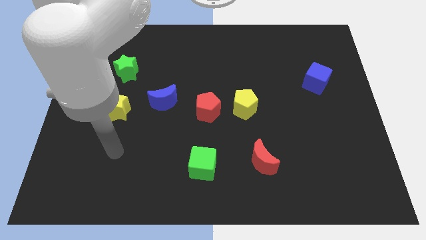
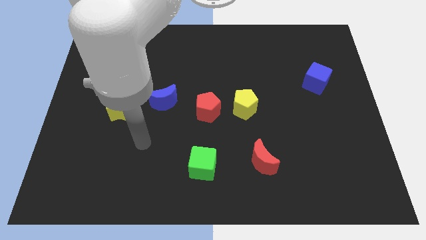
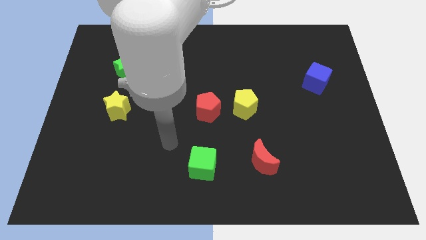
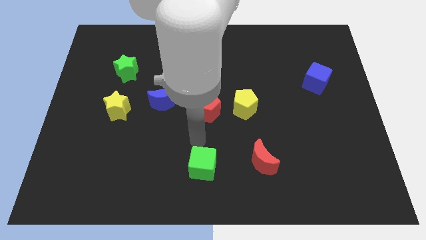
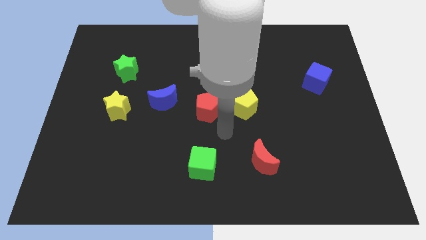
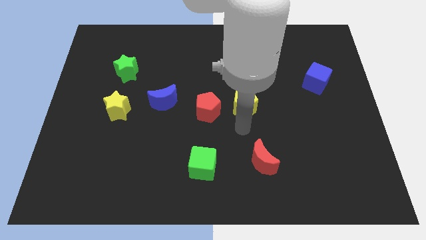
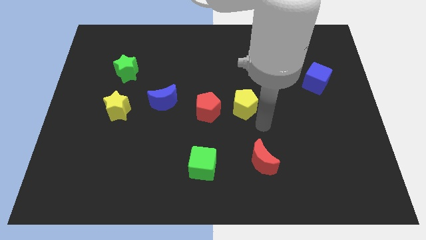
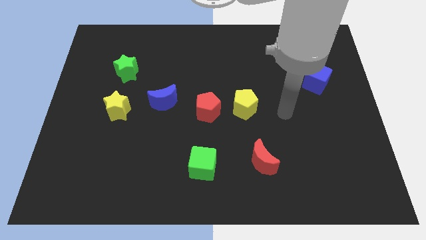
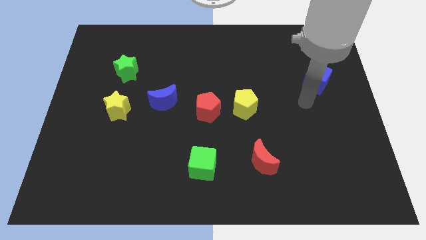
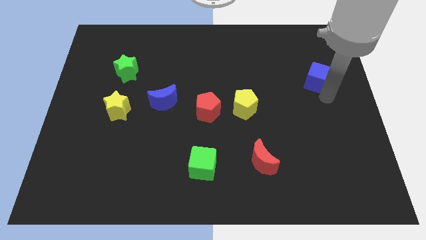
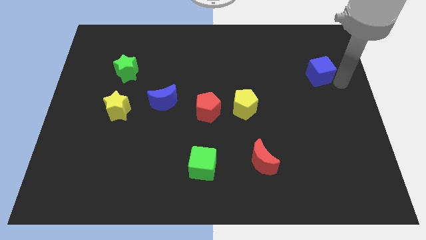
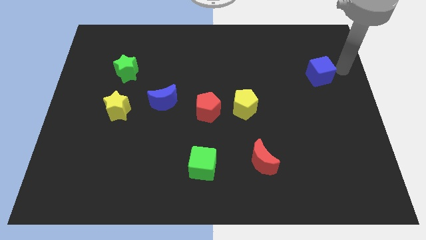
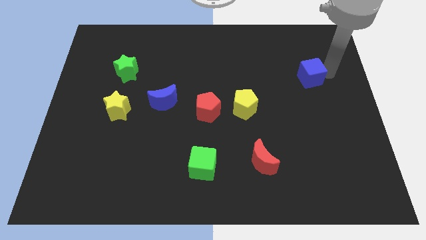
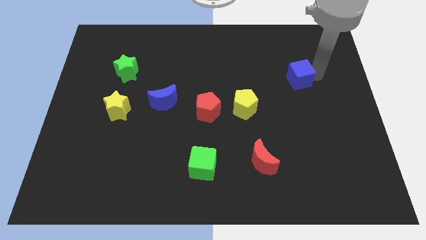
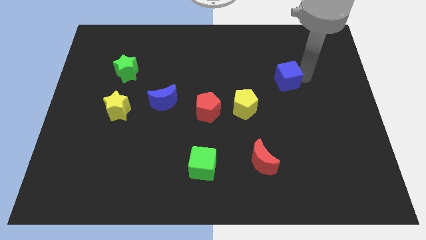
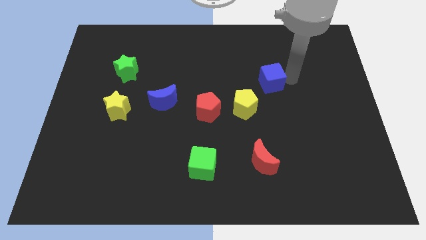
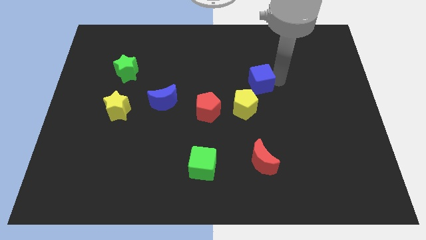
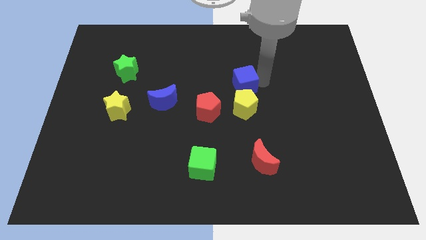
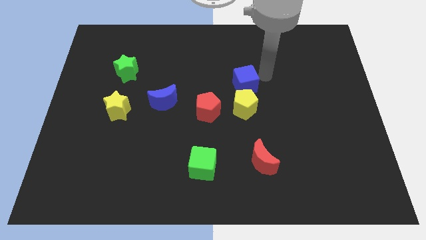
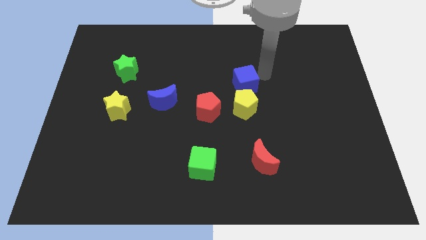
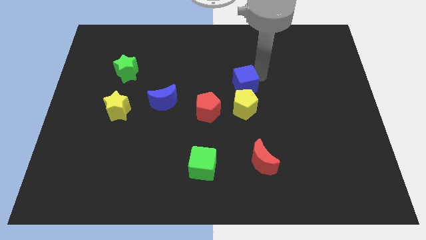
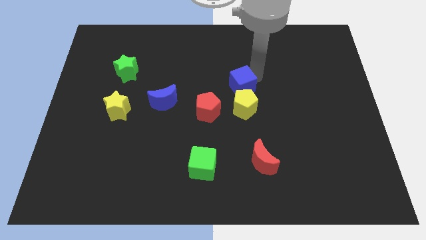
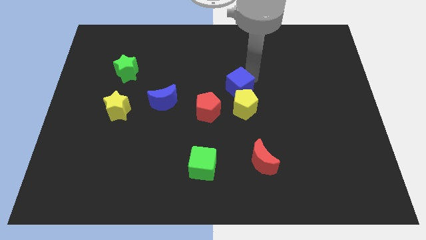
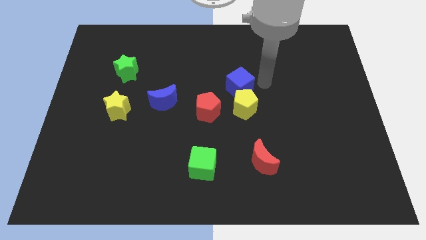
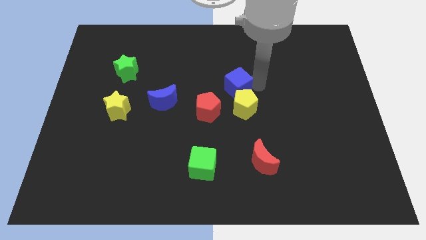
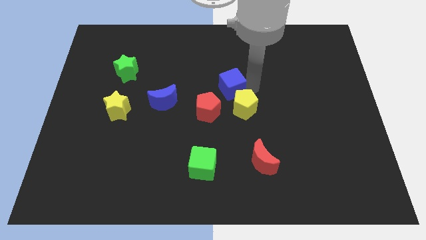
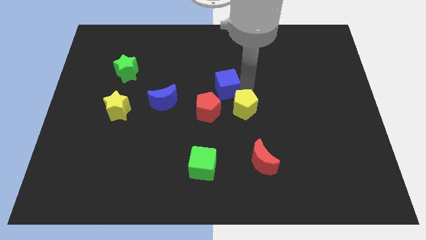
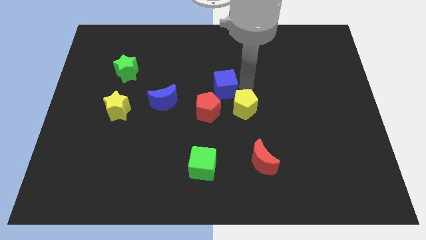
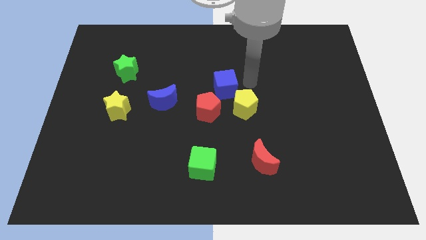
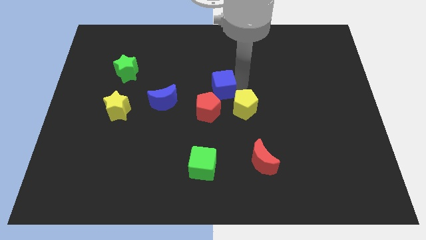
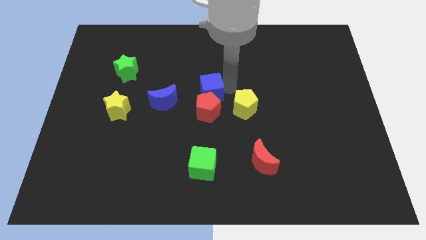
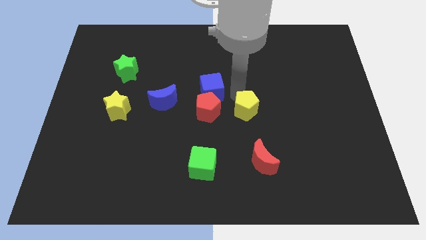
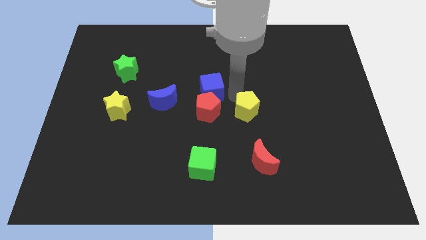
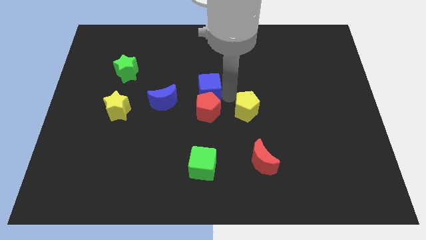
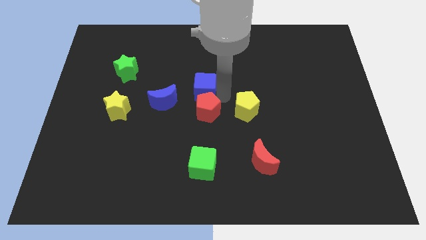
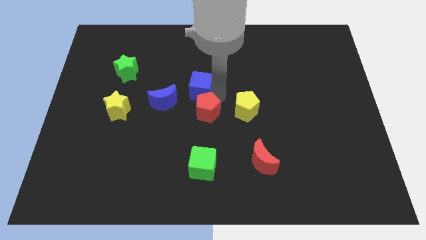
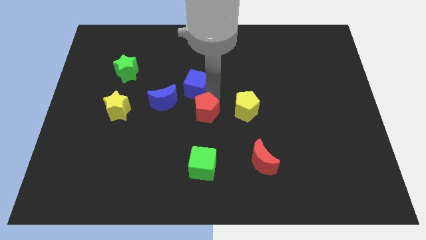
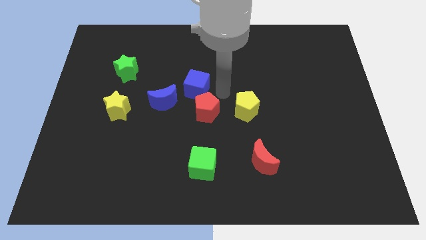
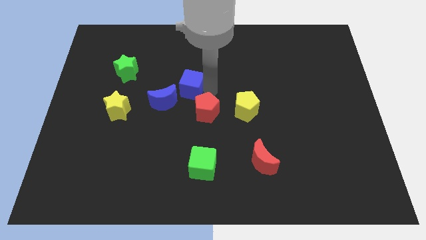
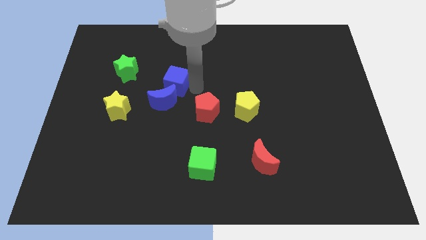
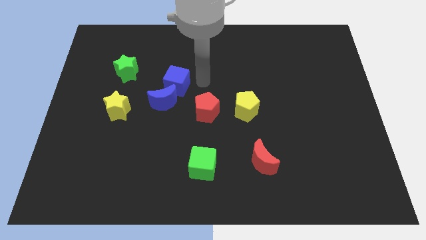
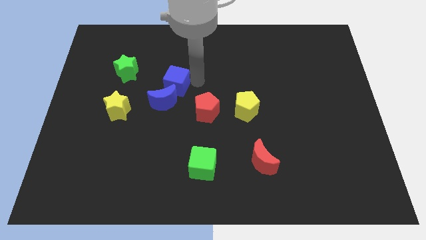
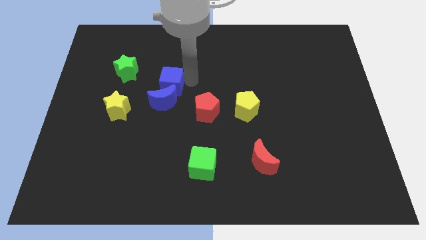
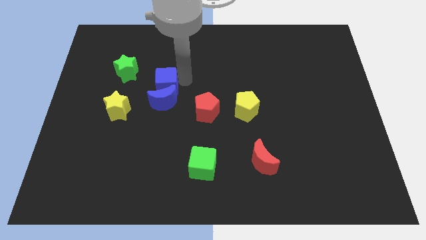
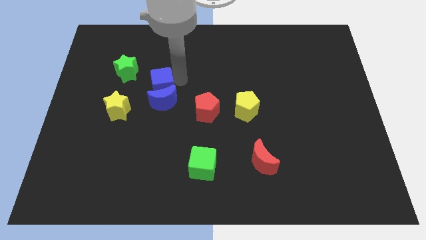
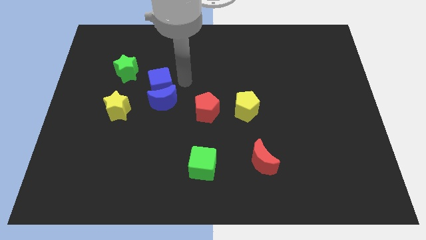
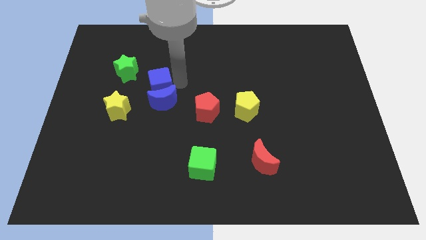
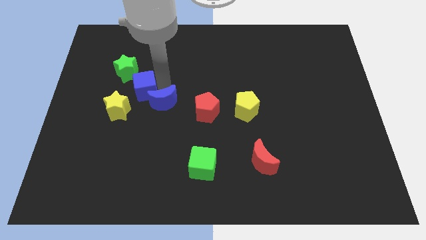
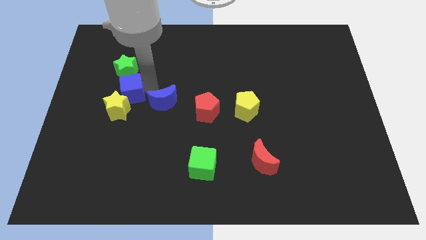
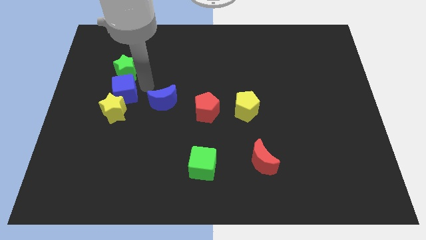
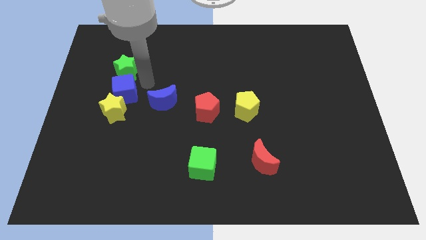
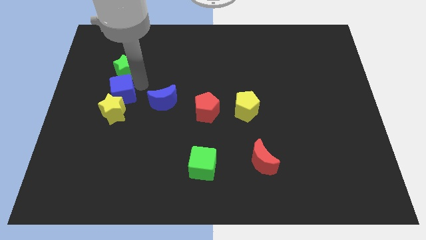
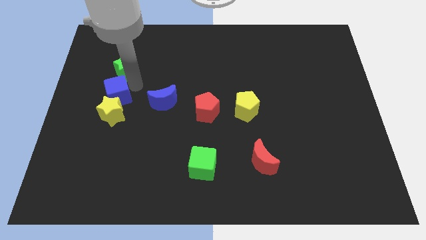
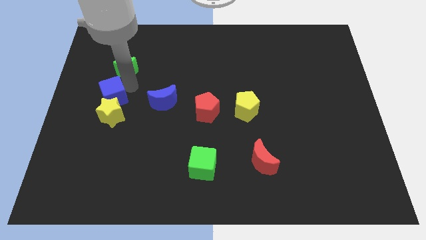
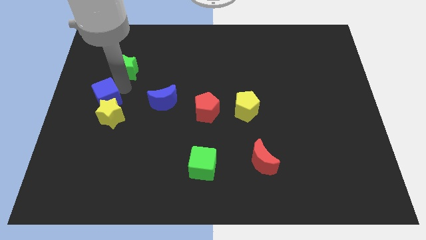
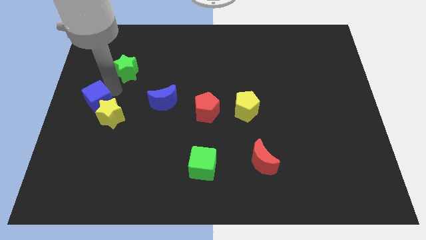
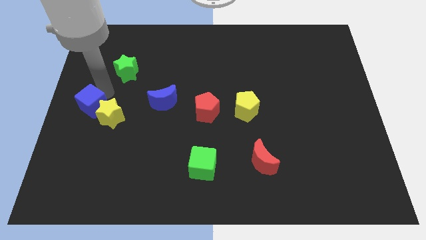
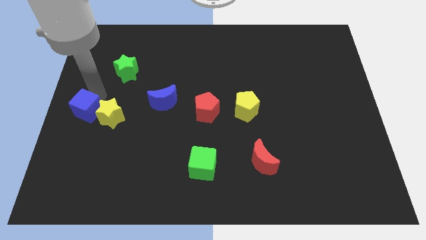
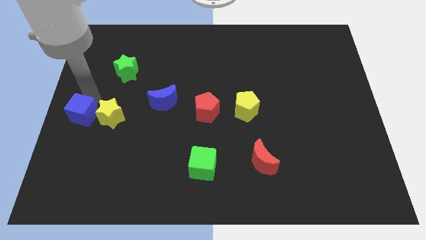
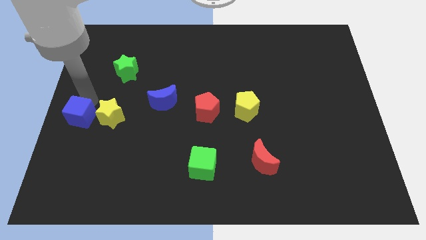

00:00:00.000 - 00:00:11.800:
move the blue cube to the bottom left of the yellow star

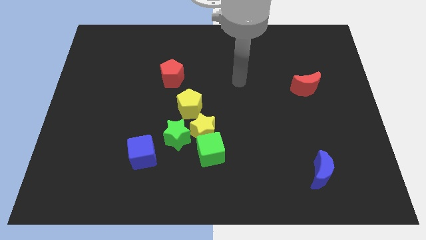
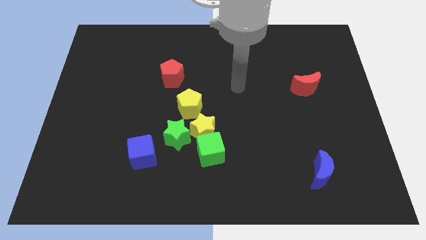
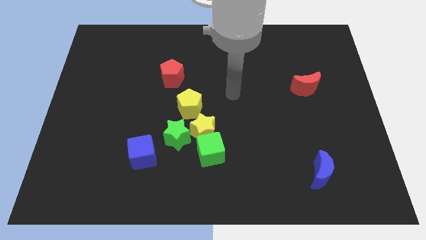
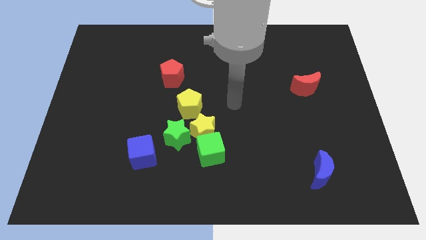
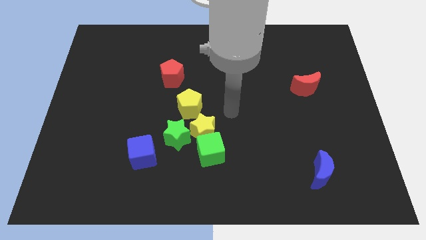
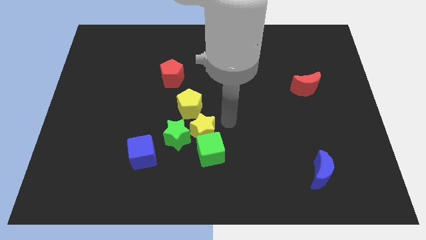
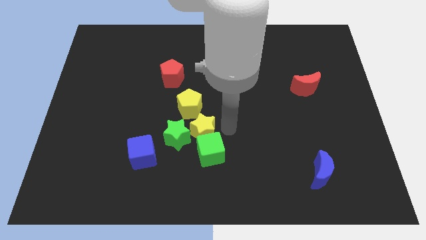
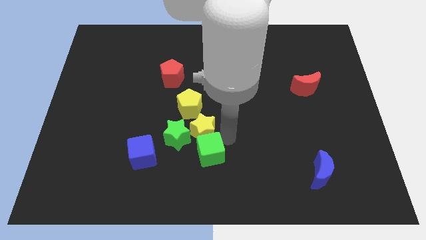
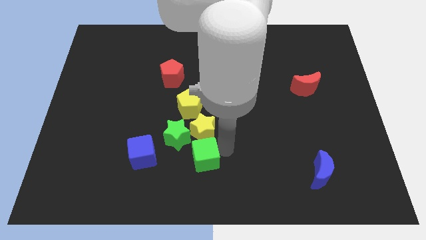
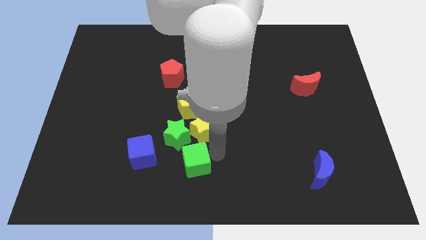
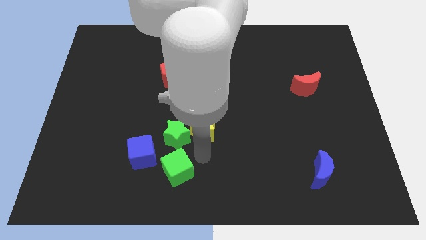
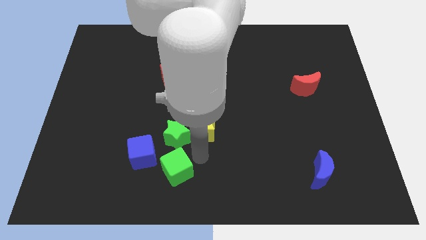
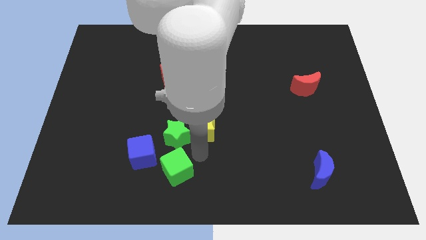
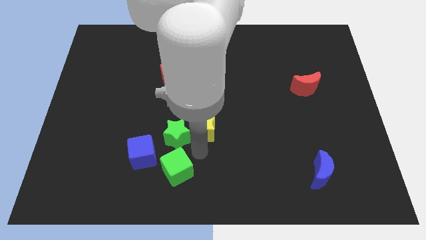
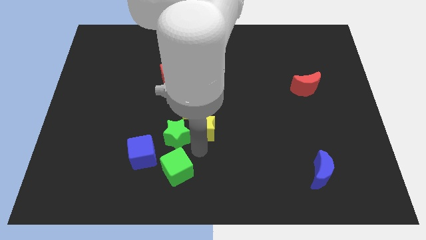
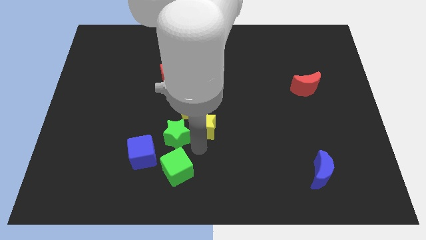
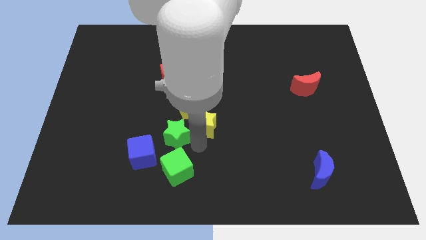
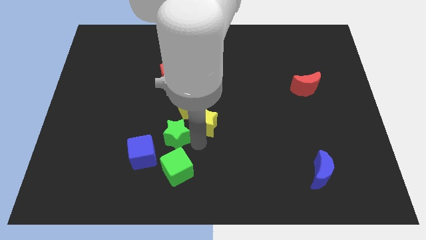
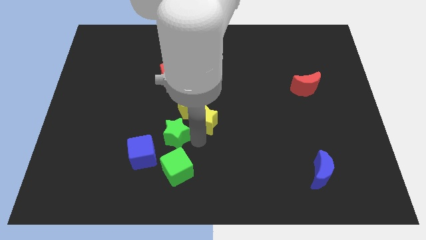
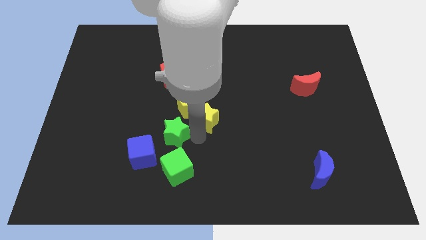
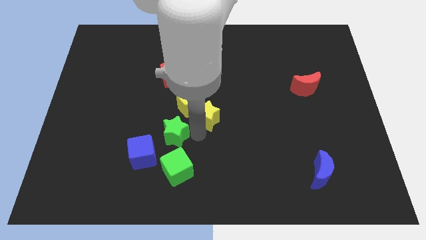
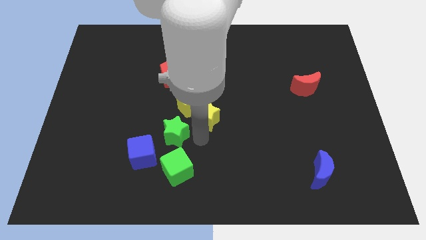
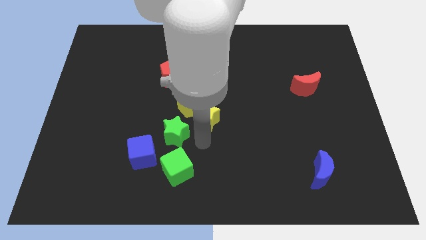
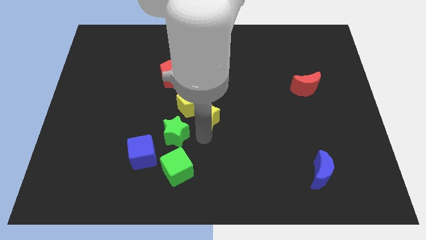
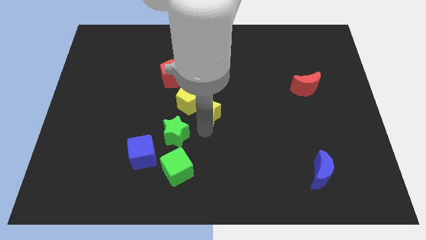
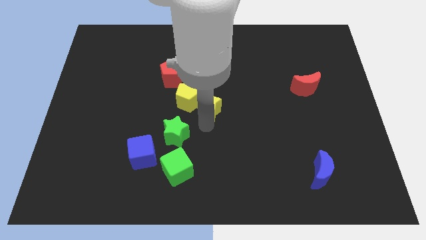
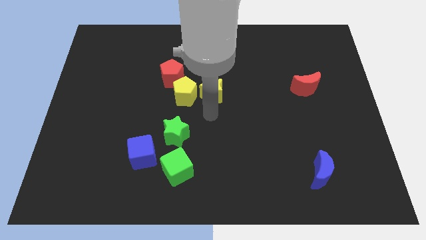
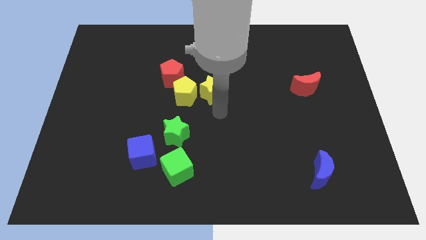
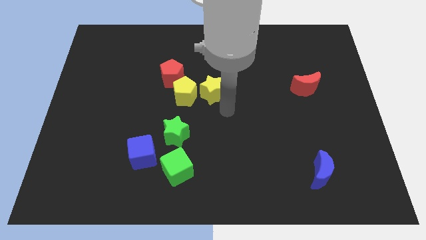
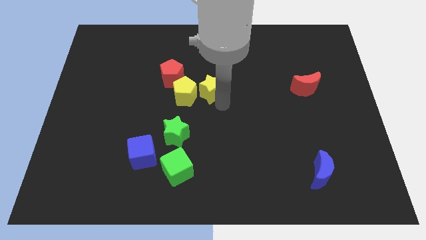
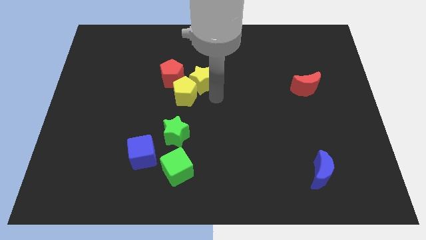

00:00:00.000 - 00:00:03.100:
move the yellow star above the yellow pentagon
